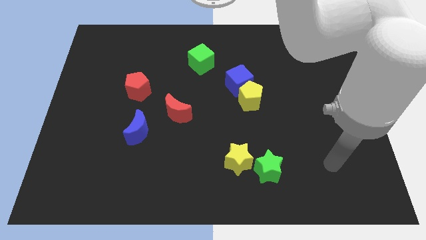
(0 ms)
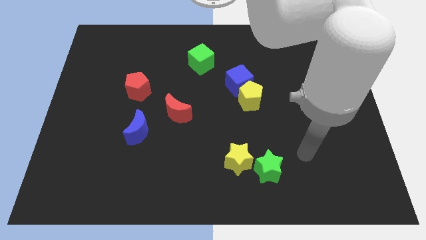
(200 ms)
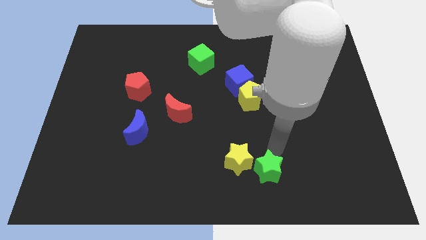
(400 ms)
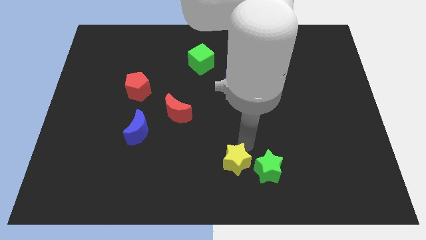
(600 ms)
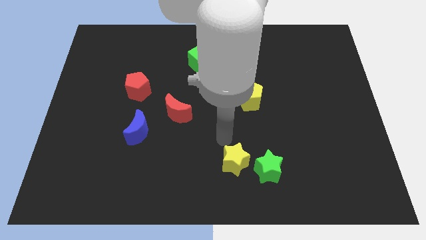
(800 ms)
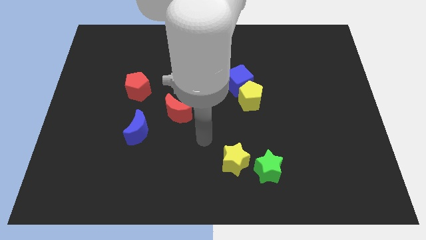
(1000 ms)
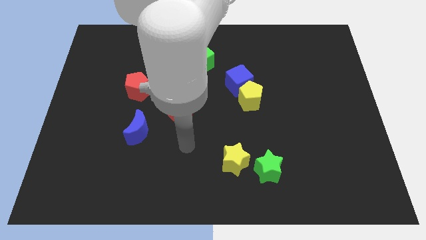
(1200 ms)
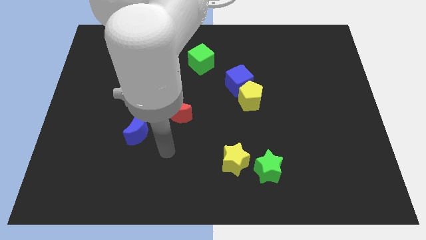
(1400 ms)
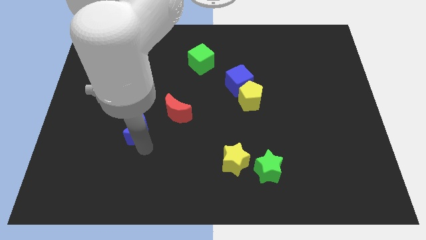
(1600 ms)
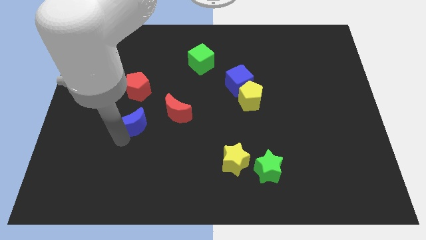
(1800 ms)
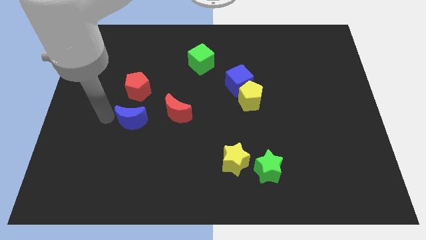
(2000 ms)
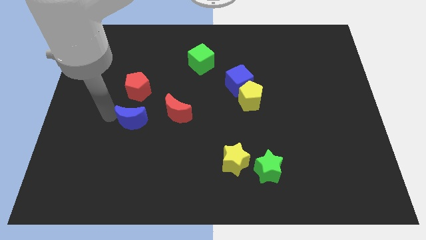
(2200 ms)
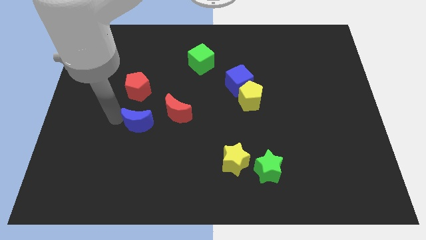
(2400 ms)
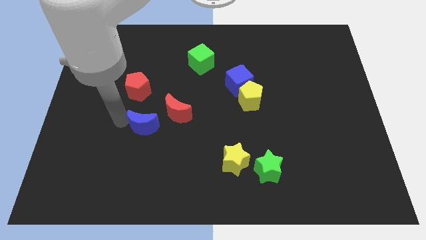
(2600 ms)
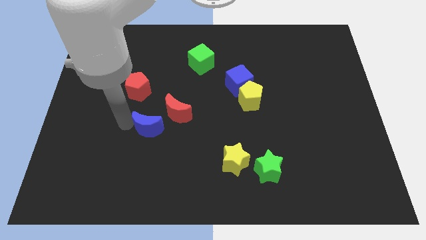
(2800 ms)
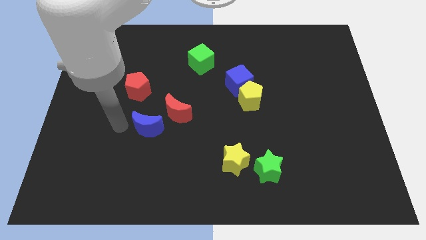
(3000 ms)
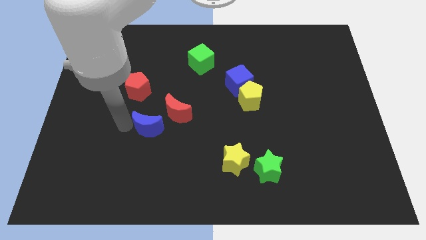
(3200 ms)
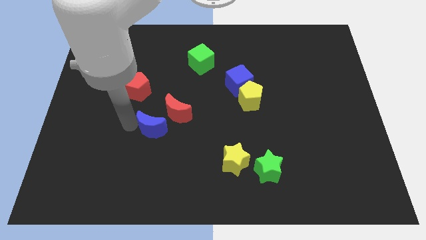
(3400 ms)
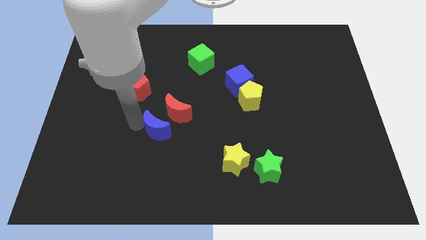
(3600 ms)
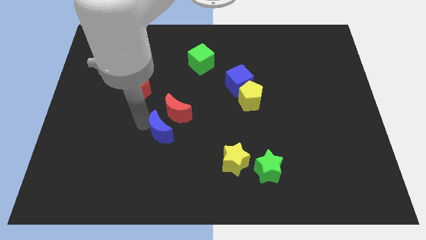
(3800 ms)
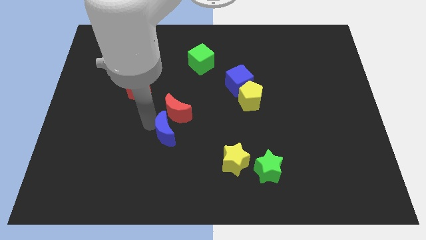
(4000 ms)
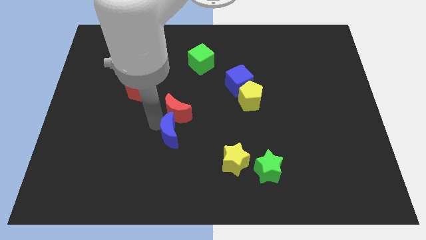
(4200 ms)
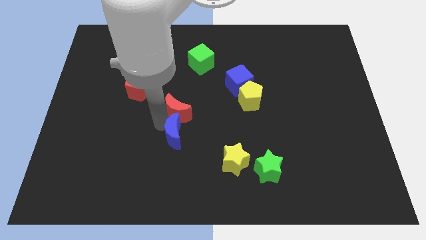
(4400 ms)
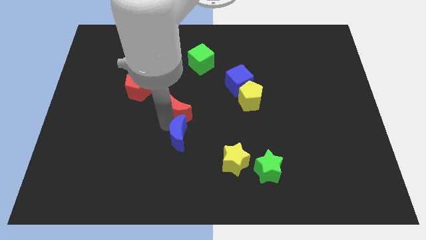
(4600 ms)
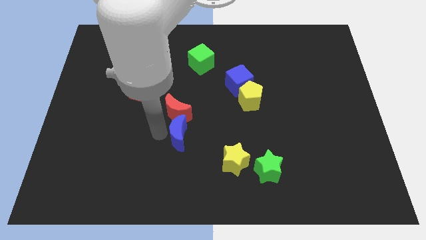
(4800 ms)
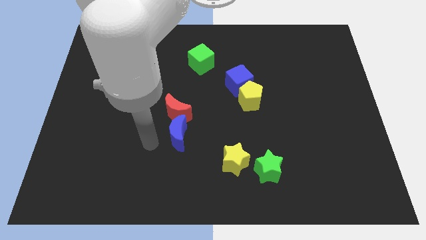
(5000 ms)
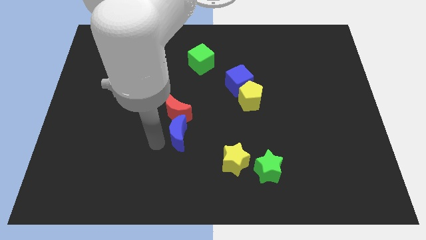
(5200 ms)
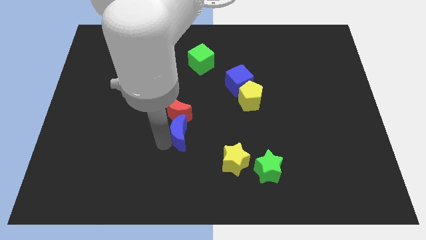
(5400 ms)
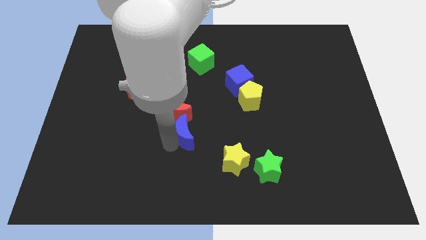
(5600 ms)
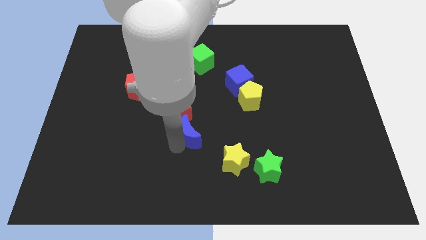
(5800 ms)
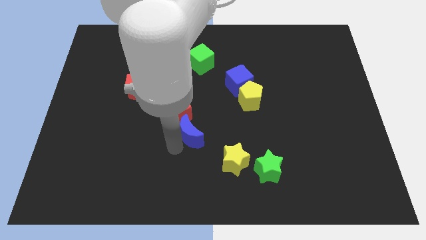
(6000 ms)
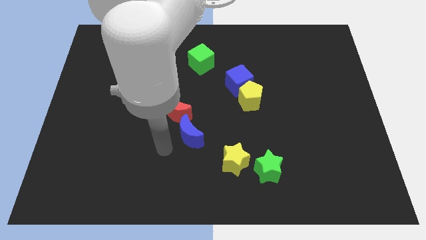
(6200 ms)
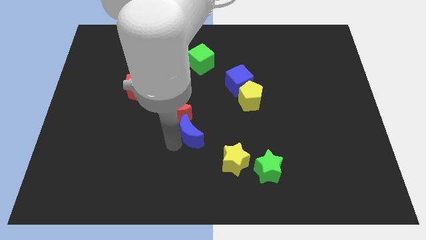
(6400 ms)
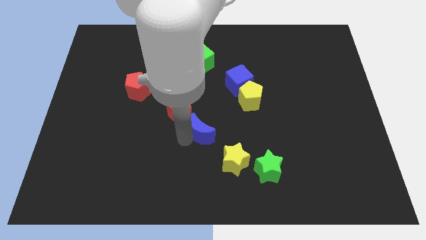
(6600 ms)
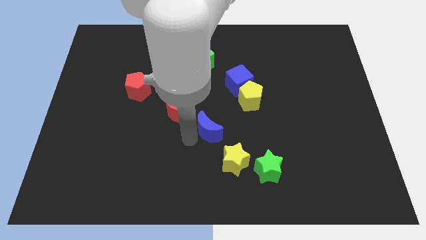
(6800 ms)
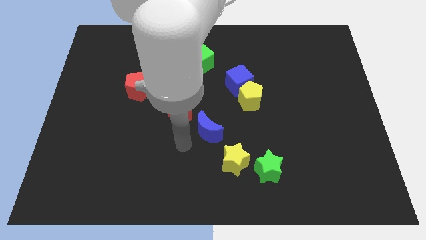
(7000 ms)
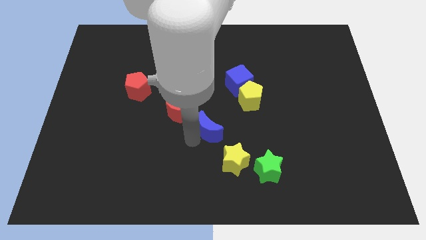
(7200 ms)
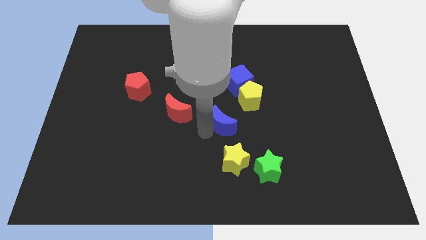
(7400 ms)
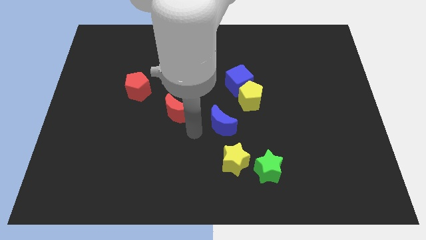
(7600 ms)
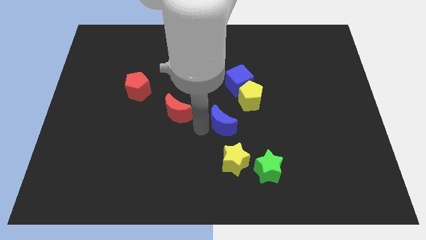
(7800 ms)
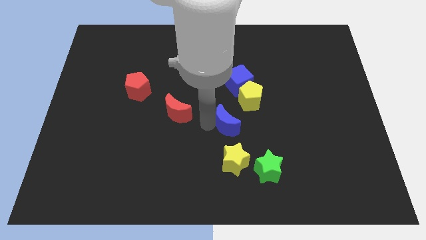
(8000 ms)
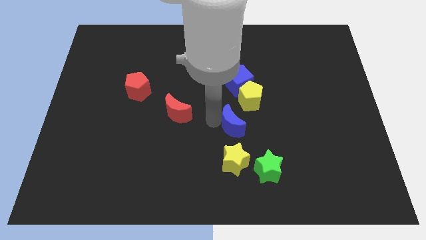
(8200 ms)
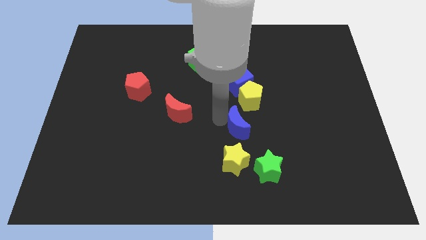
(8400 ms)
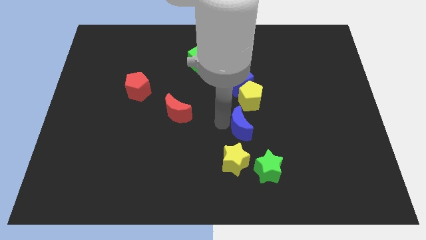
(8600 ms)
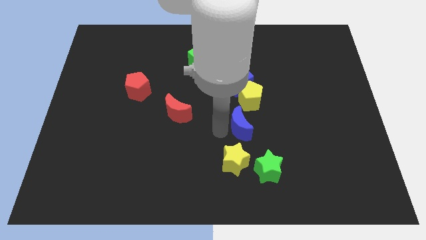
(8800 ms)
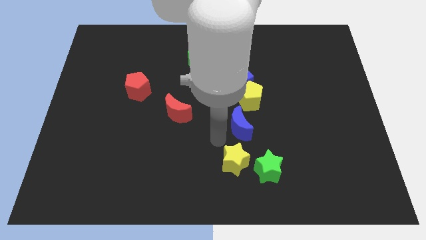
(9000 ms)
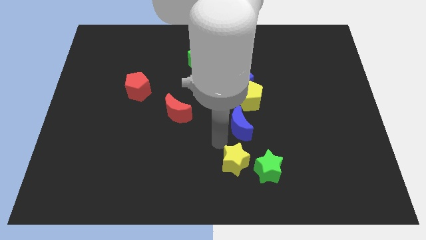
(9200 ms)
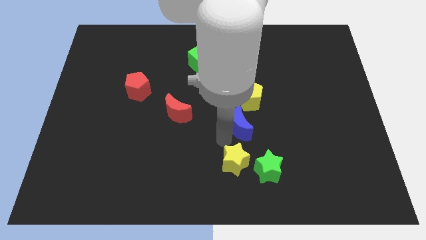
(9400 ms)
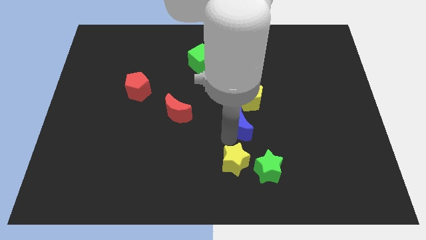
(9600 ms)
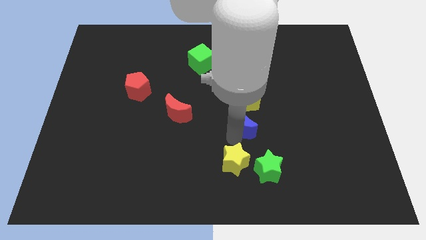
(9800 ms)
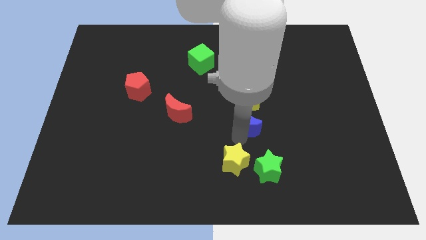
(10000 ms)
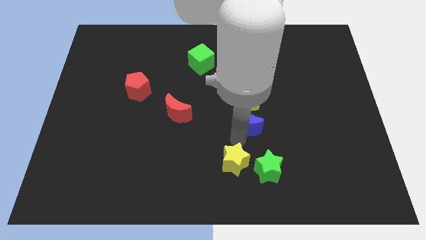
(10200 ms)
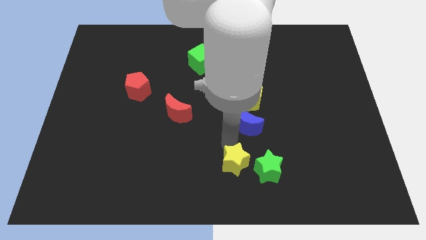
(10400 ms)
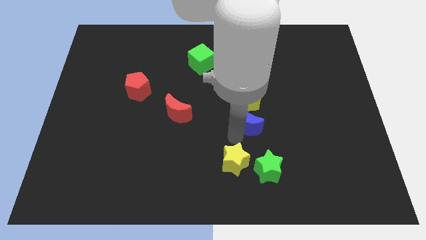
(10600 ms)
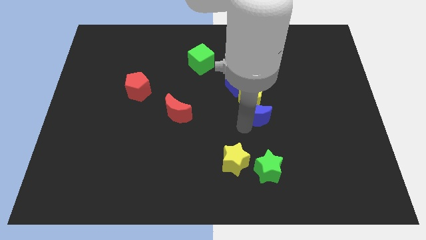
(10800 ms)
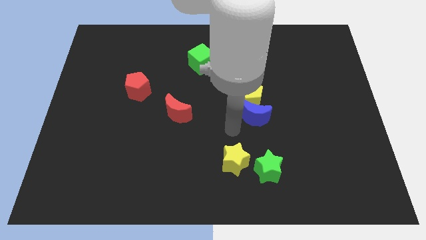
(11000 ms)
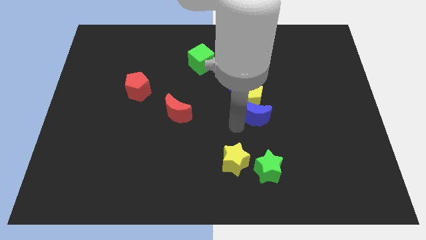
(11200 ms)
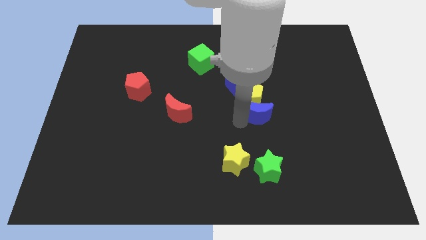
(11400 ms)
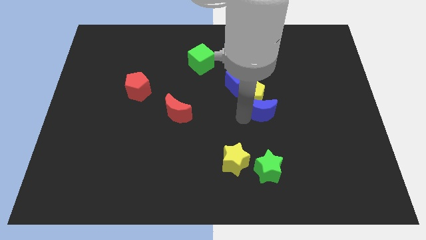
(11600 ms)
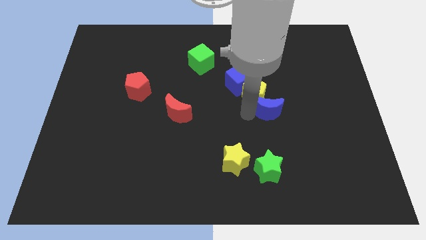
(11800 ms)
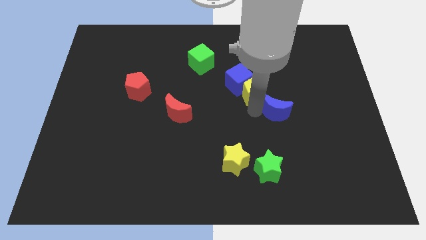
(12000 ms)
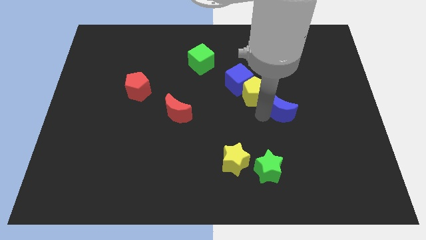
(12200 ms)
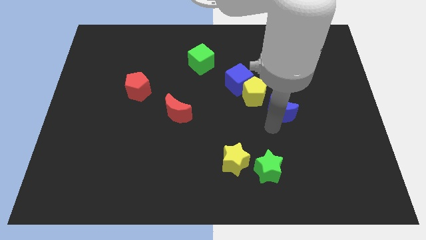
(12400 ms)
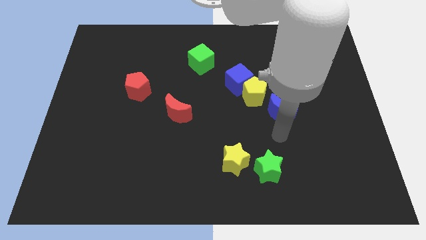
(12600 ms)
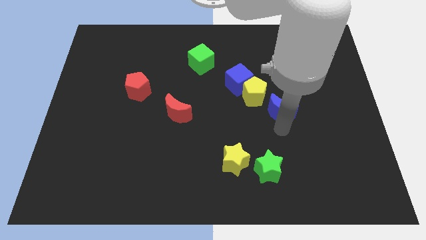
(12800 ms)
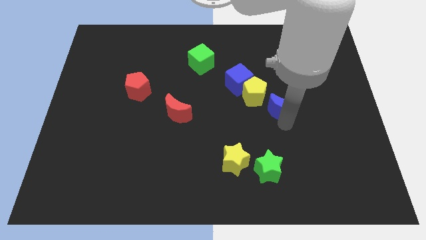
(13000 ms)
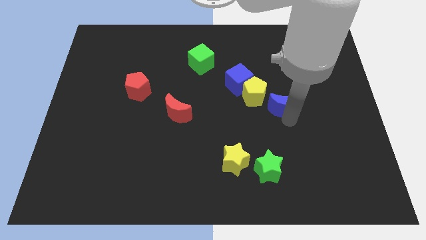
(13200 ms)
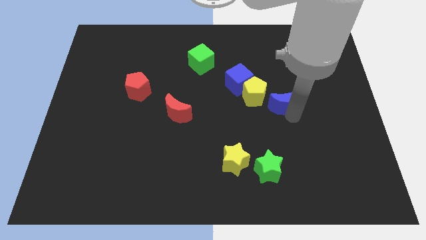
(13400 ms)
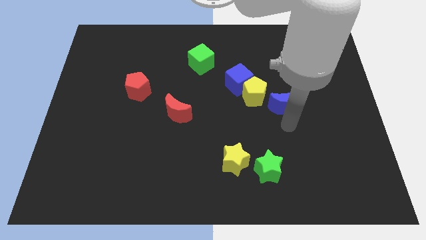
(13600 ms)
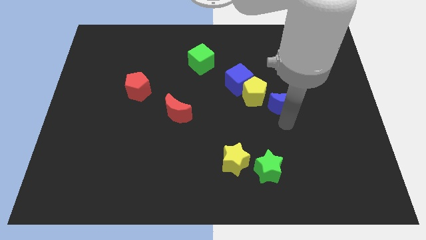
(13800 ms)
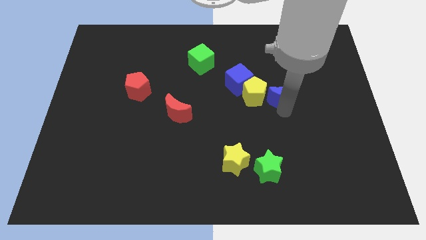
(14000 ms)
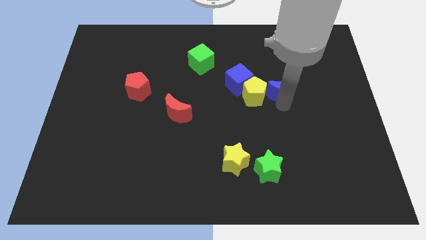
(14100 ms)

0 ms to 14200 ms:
push the blue moon right of the blue cube
